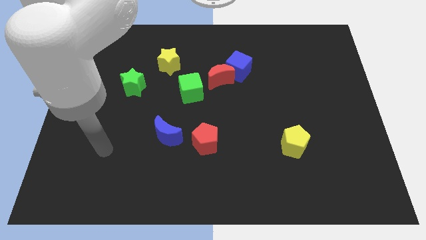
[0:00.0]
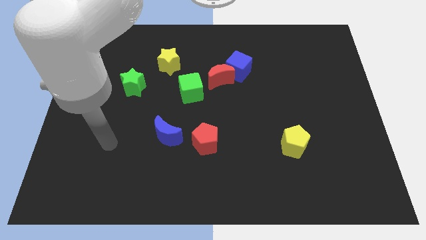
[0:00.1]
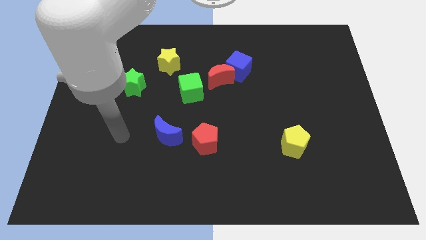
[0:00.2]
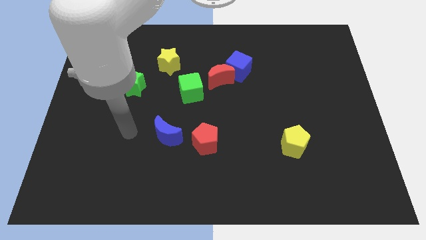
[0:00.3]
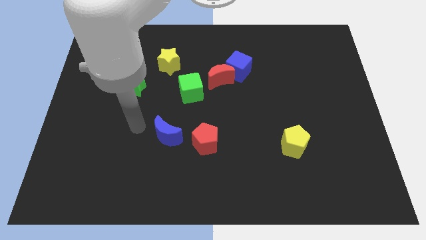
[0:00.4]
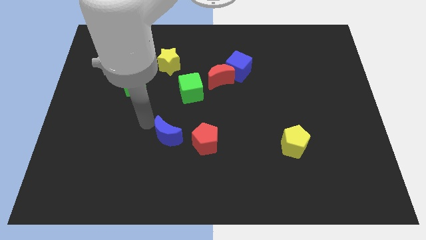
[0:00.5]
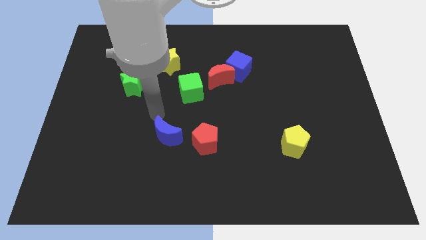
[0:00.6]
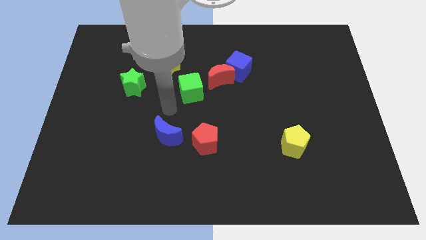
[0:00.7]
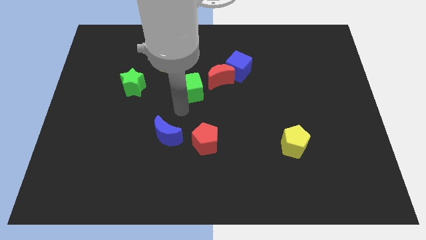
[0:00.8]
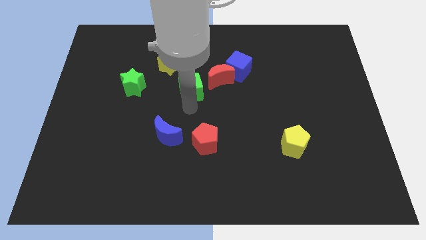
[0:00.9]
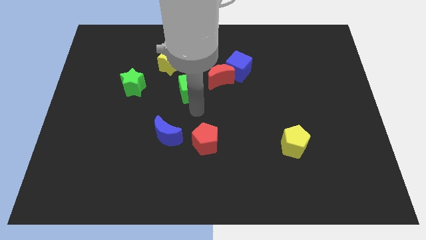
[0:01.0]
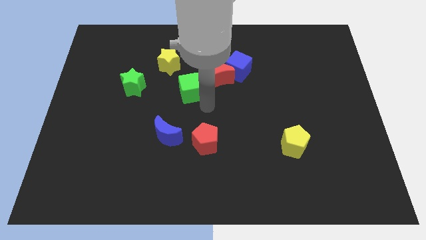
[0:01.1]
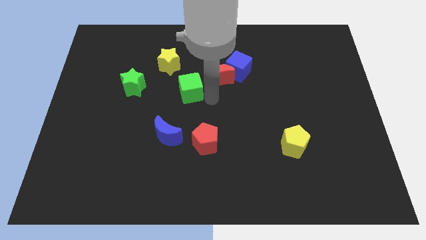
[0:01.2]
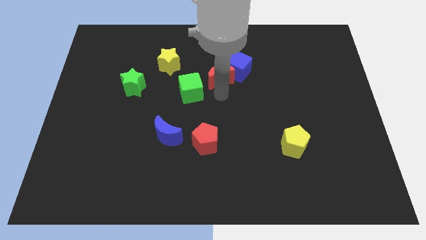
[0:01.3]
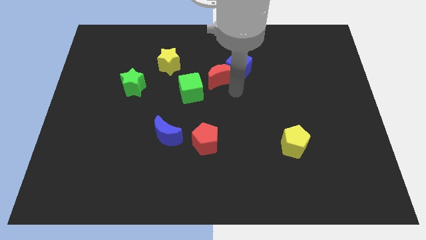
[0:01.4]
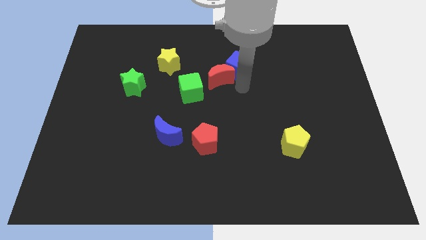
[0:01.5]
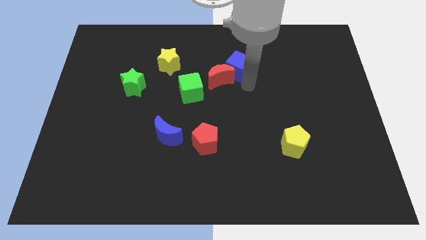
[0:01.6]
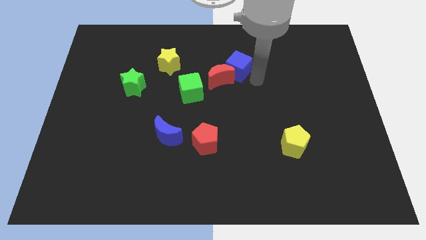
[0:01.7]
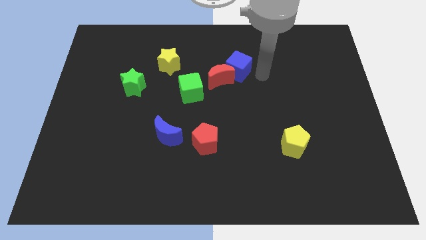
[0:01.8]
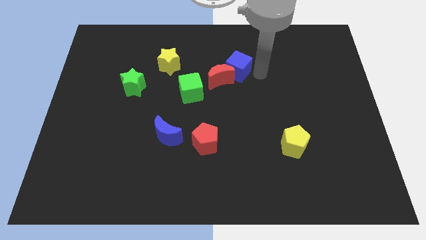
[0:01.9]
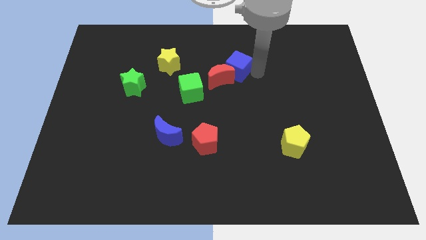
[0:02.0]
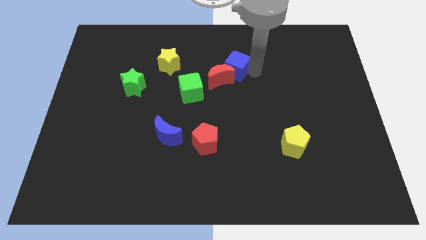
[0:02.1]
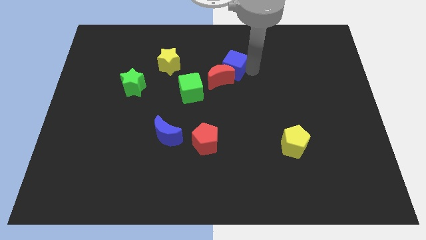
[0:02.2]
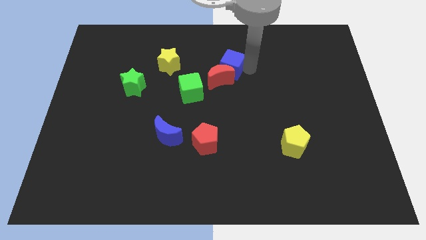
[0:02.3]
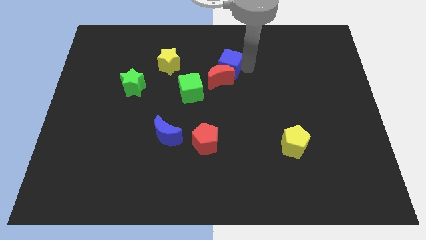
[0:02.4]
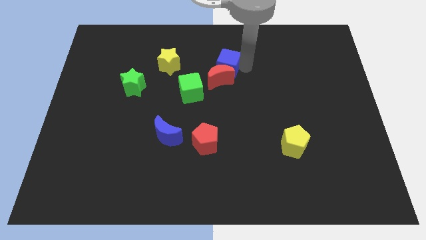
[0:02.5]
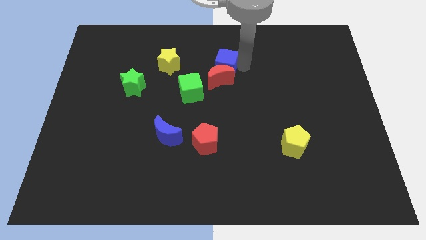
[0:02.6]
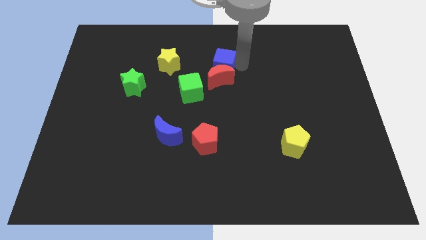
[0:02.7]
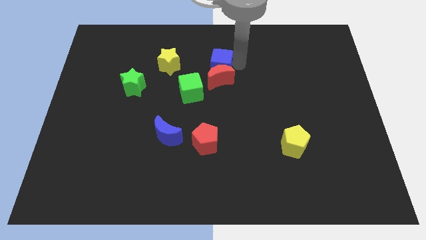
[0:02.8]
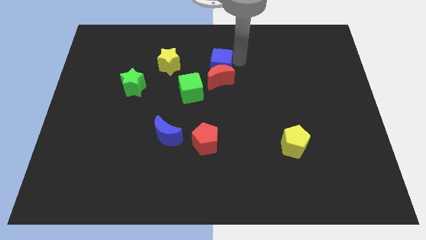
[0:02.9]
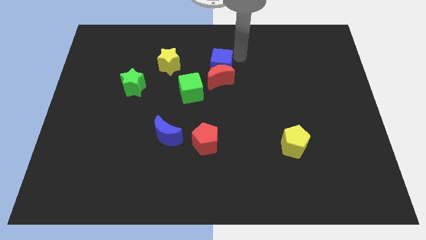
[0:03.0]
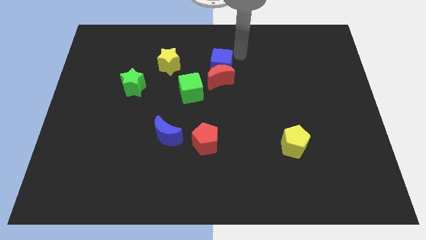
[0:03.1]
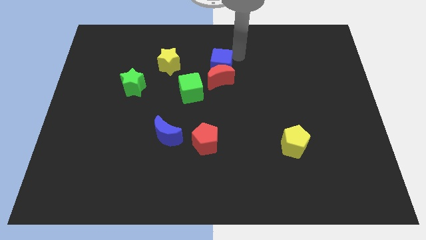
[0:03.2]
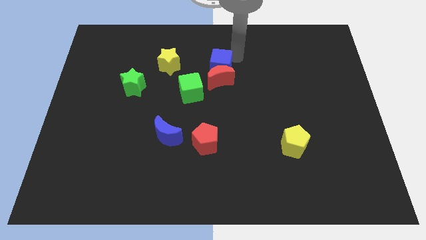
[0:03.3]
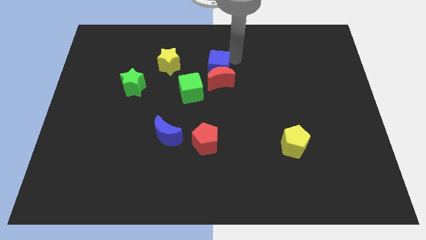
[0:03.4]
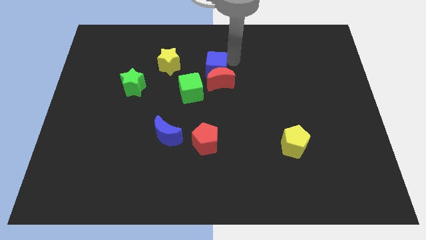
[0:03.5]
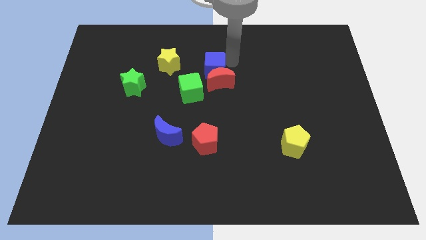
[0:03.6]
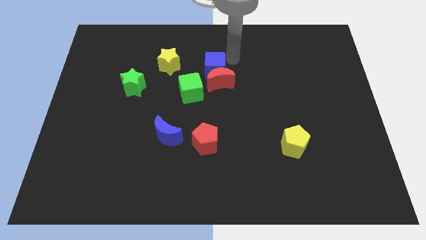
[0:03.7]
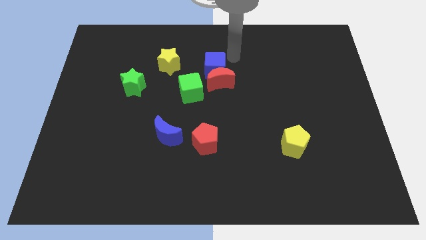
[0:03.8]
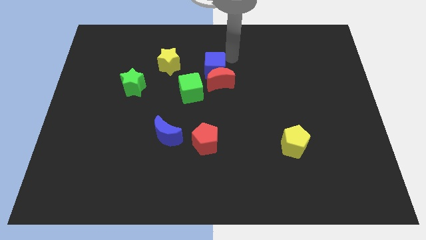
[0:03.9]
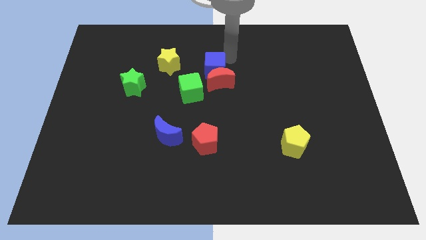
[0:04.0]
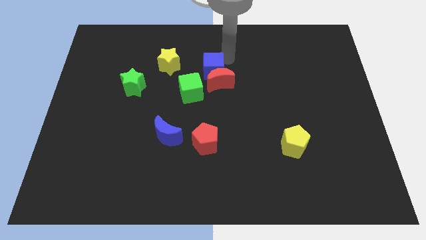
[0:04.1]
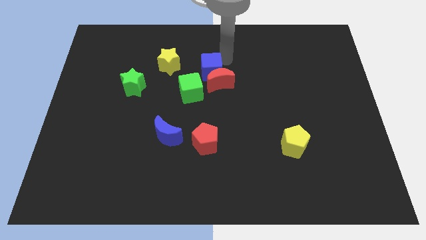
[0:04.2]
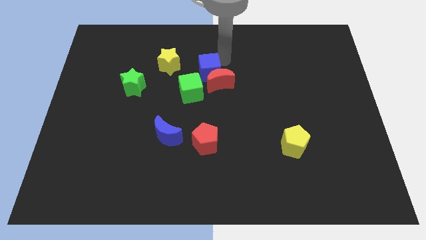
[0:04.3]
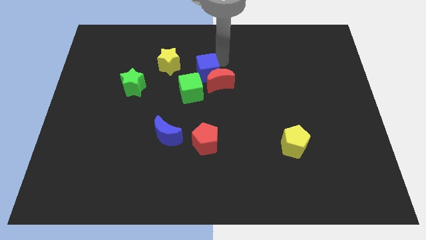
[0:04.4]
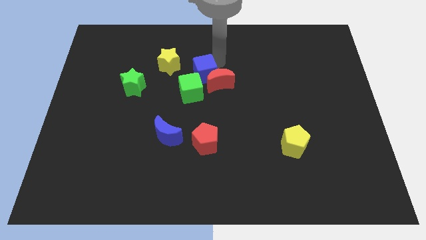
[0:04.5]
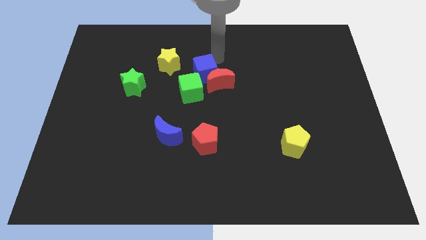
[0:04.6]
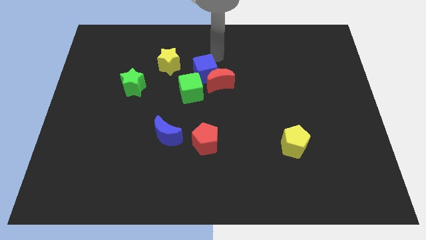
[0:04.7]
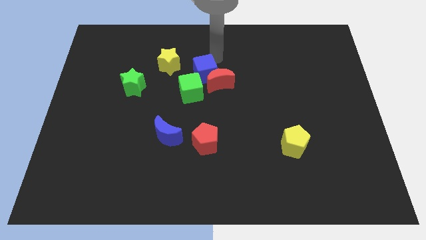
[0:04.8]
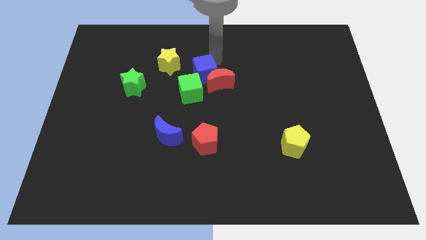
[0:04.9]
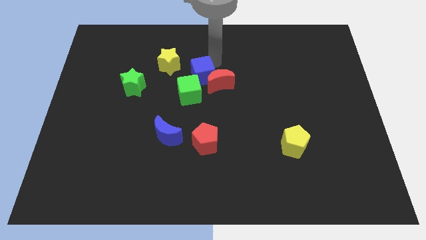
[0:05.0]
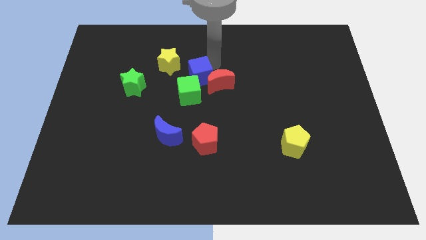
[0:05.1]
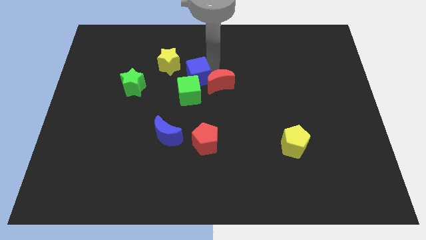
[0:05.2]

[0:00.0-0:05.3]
put the blue cube next to the green cube

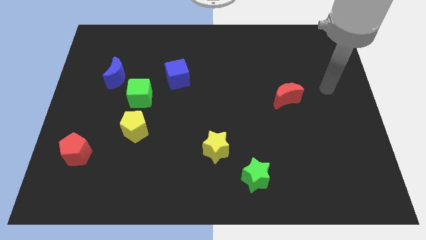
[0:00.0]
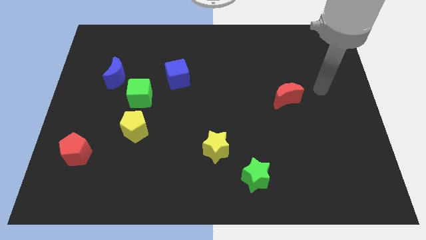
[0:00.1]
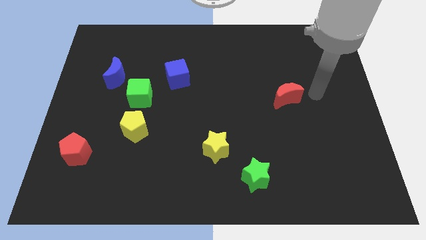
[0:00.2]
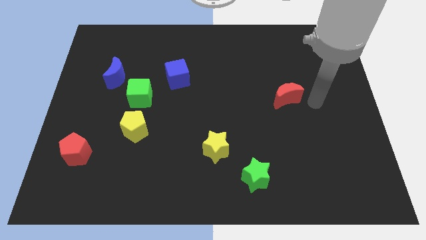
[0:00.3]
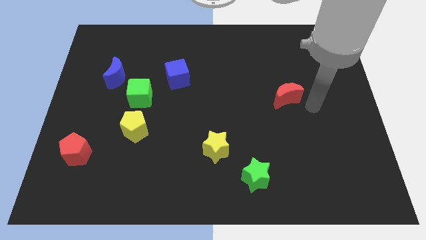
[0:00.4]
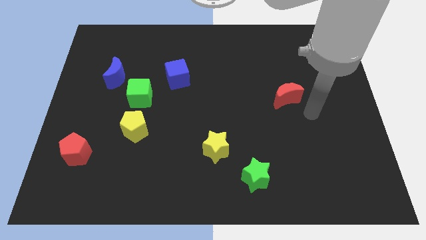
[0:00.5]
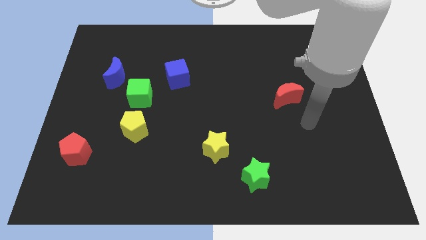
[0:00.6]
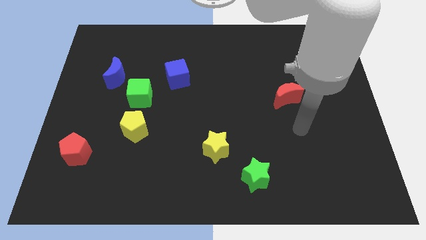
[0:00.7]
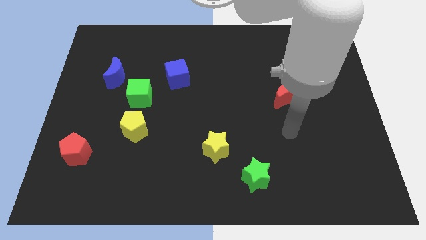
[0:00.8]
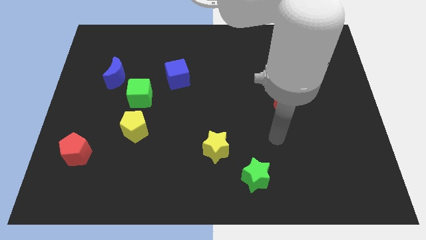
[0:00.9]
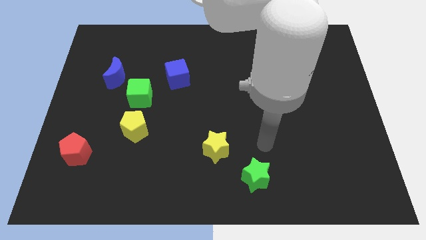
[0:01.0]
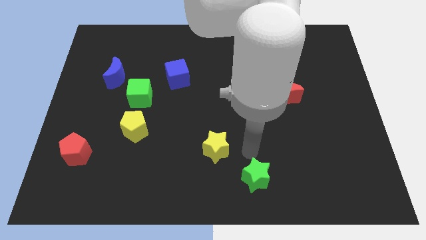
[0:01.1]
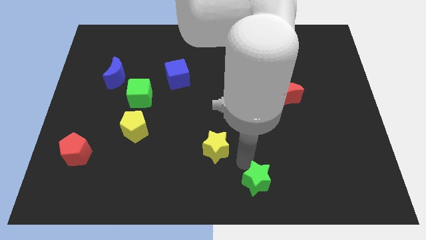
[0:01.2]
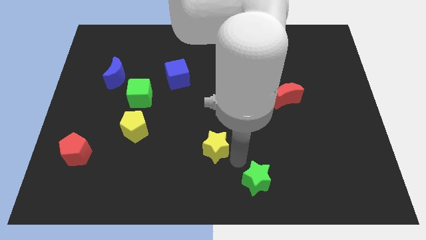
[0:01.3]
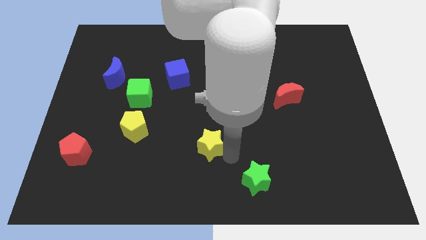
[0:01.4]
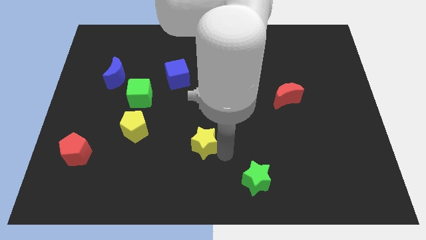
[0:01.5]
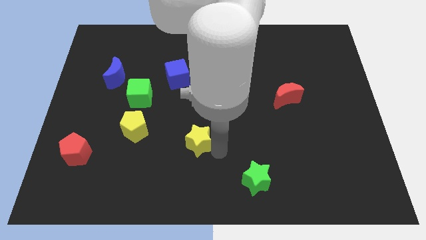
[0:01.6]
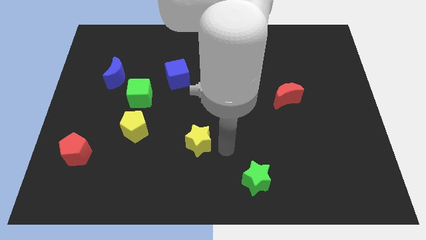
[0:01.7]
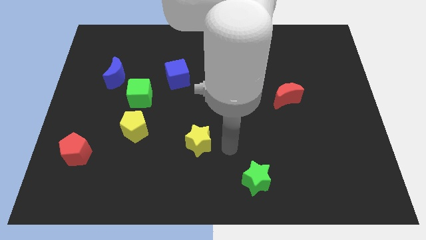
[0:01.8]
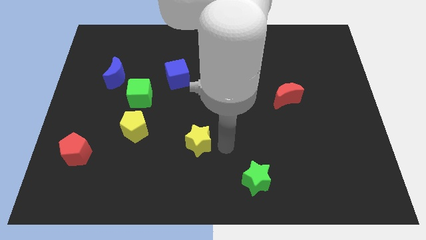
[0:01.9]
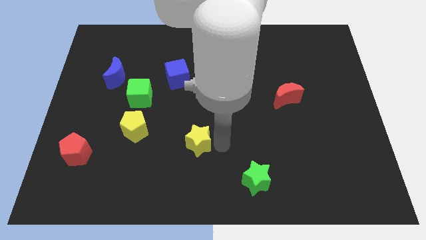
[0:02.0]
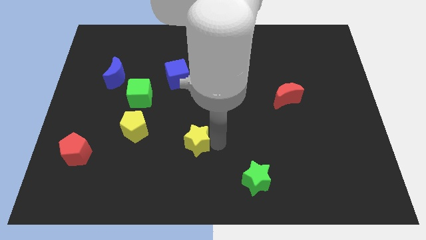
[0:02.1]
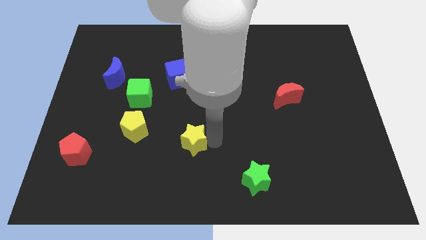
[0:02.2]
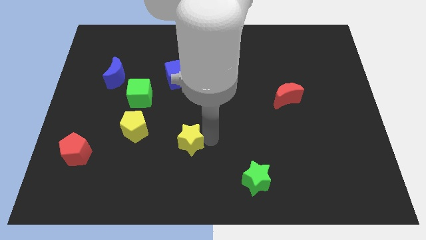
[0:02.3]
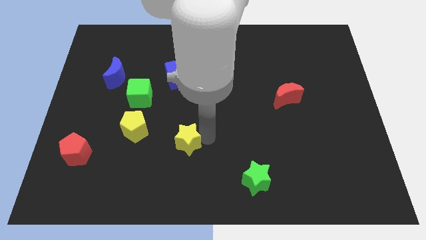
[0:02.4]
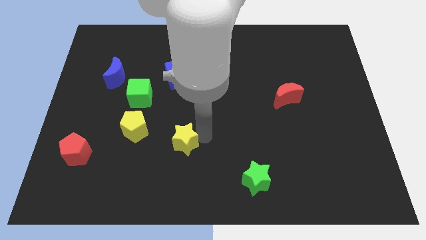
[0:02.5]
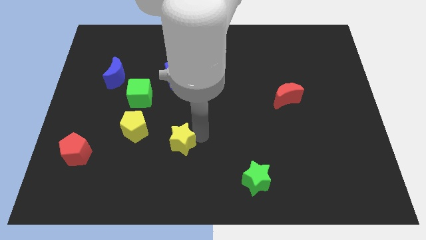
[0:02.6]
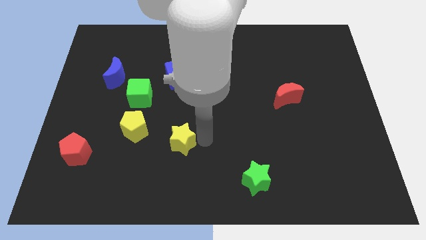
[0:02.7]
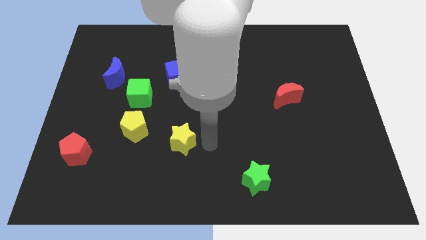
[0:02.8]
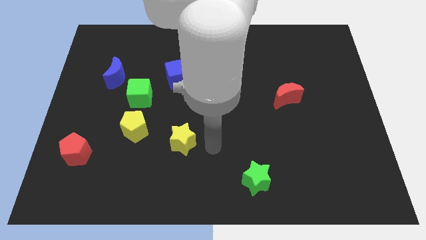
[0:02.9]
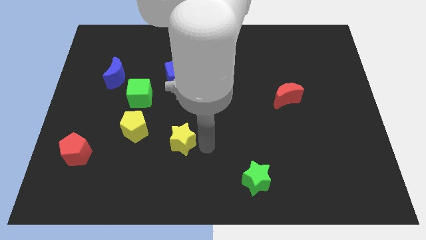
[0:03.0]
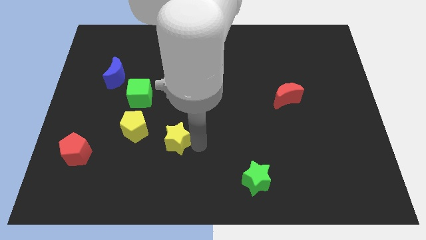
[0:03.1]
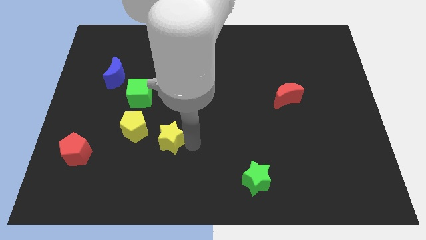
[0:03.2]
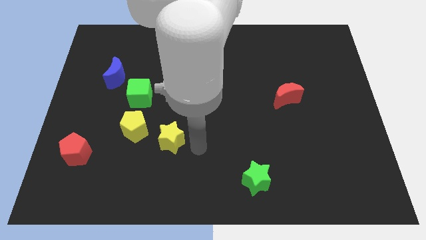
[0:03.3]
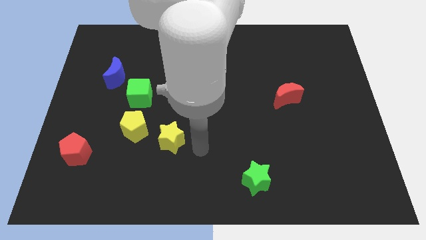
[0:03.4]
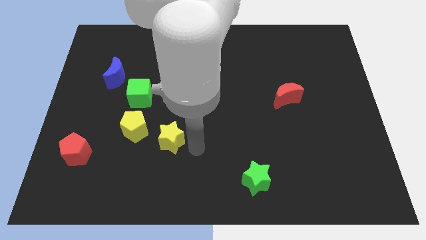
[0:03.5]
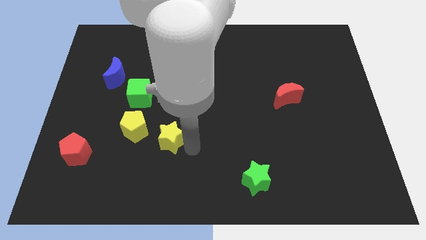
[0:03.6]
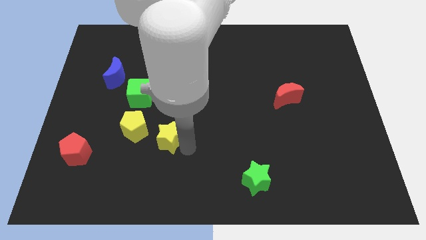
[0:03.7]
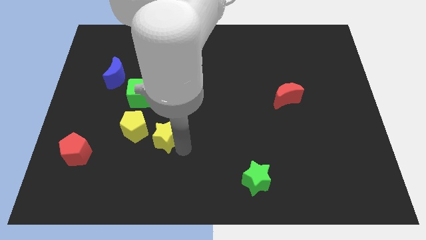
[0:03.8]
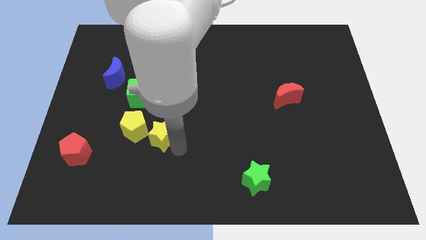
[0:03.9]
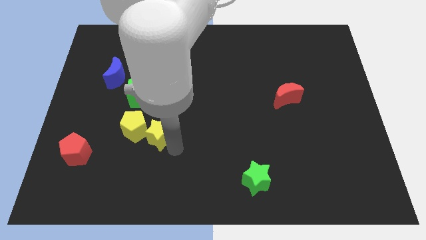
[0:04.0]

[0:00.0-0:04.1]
slide the yellow star close to the yellow pentagon
